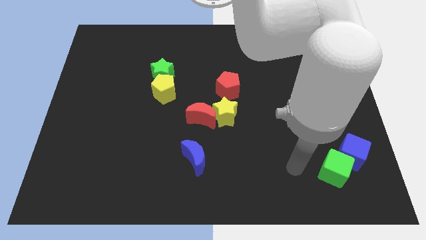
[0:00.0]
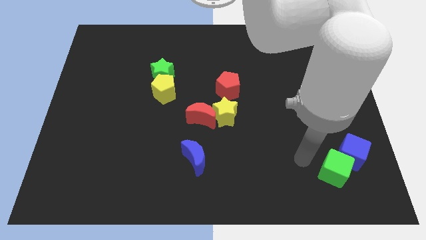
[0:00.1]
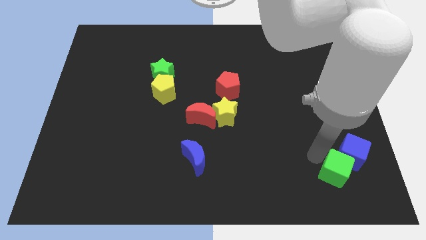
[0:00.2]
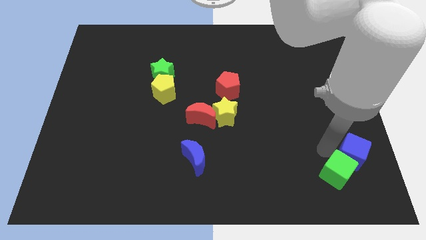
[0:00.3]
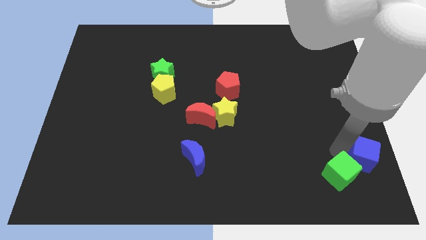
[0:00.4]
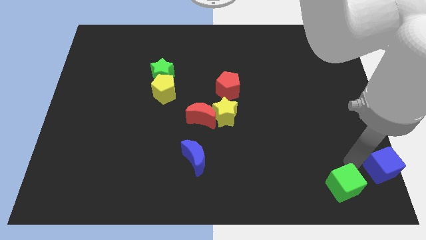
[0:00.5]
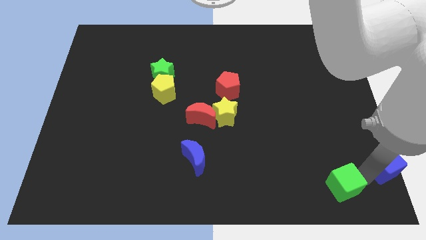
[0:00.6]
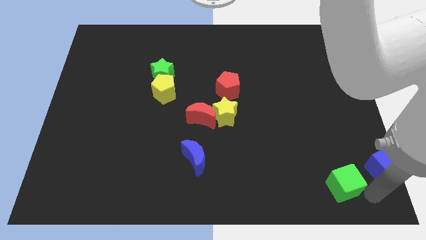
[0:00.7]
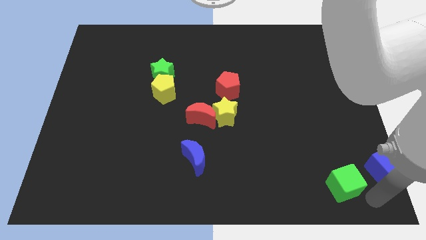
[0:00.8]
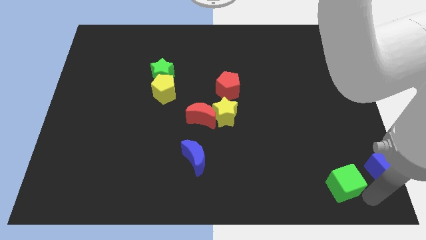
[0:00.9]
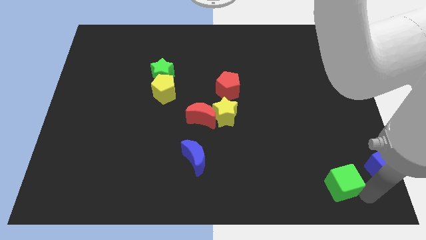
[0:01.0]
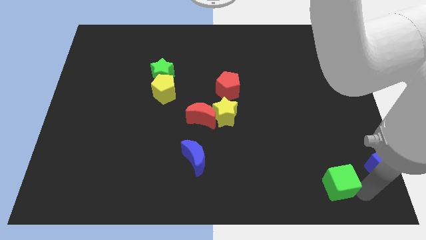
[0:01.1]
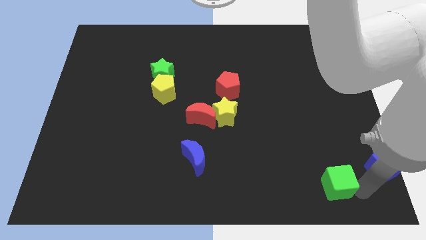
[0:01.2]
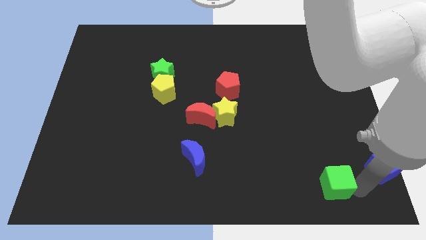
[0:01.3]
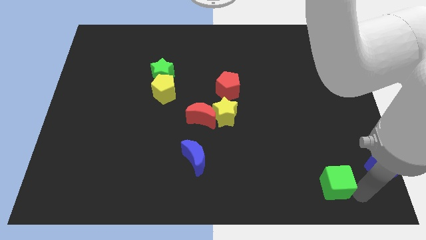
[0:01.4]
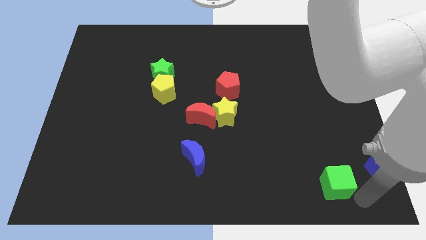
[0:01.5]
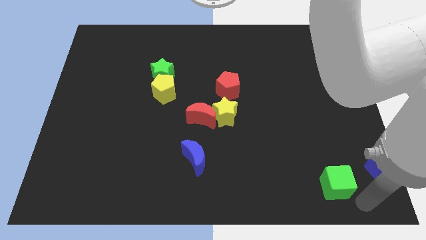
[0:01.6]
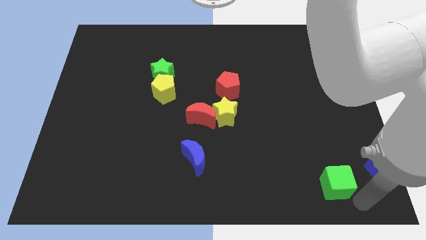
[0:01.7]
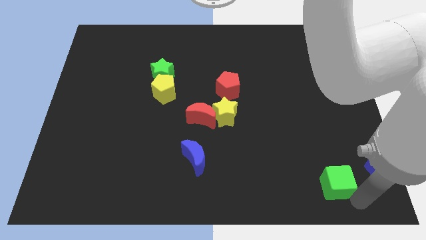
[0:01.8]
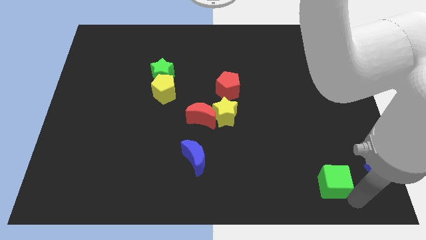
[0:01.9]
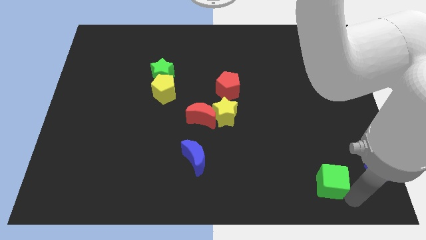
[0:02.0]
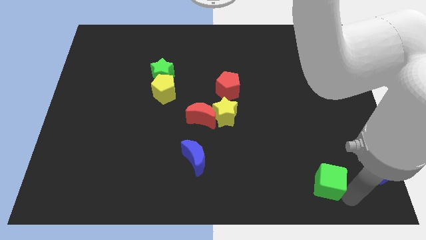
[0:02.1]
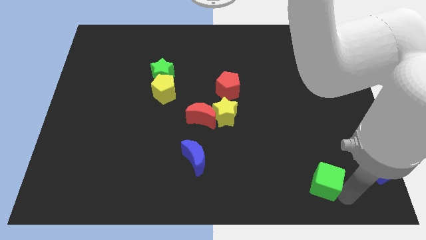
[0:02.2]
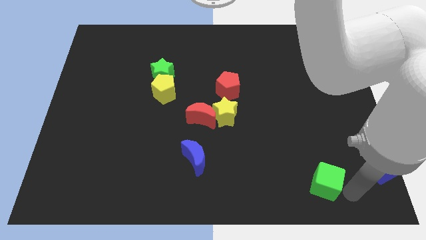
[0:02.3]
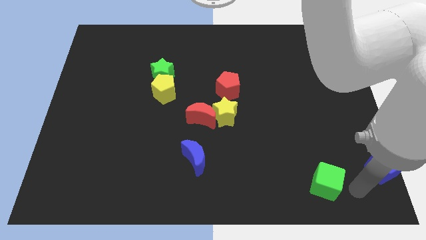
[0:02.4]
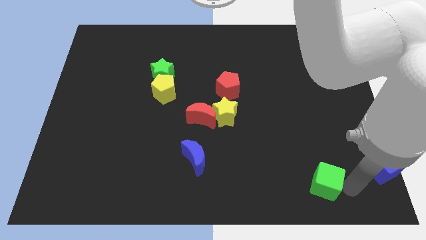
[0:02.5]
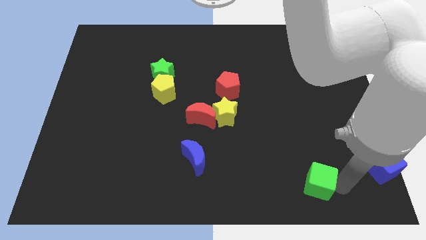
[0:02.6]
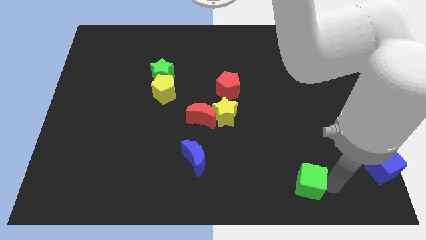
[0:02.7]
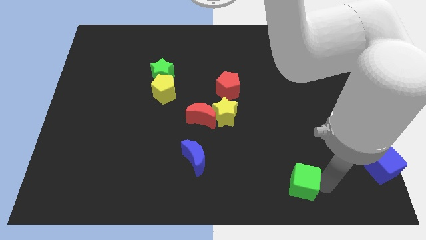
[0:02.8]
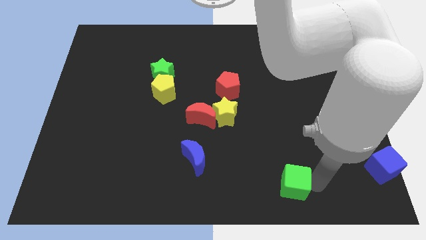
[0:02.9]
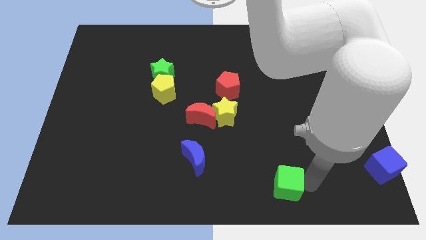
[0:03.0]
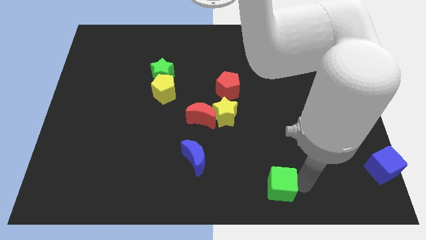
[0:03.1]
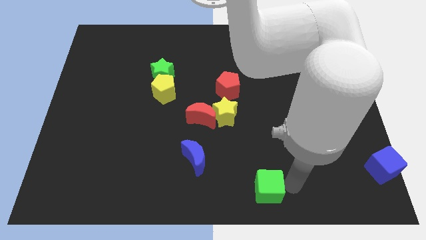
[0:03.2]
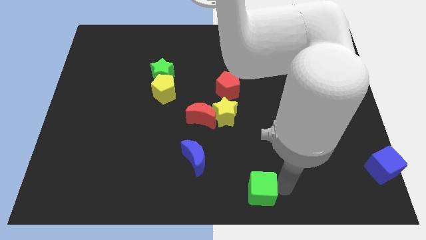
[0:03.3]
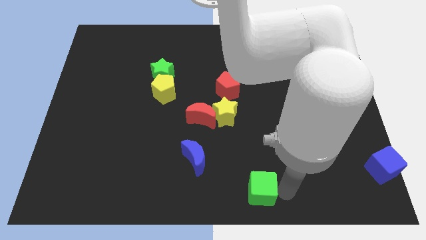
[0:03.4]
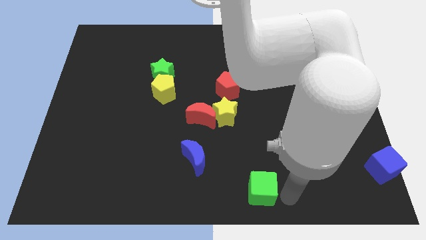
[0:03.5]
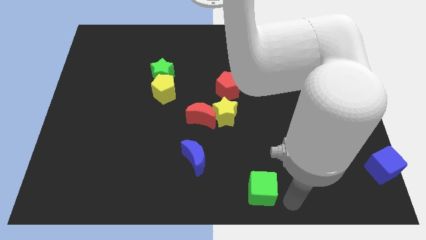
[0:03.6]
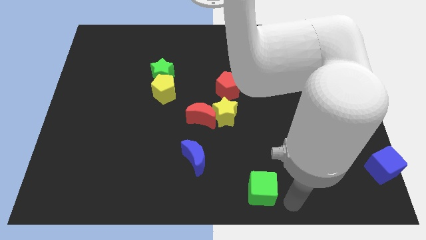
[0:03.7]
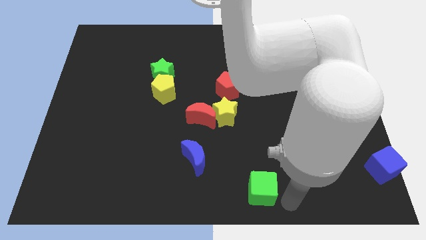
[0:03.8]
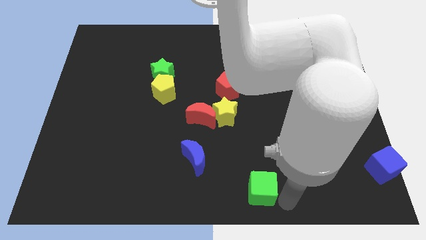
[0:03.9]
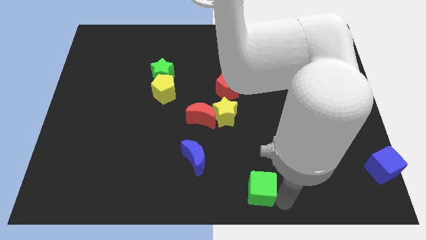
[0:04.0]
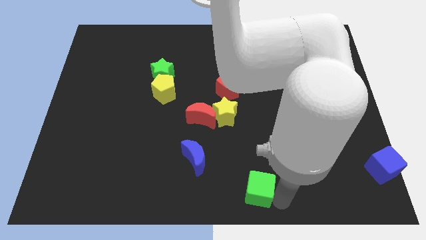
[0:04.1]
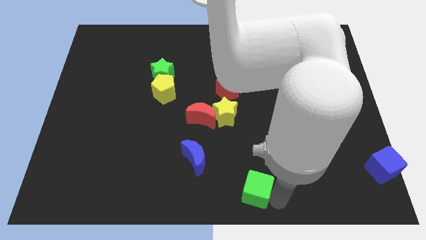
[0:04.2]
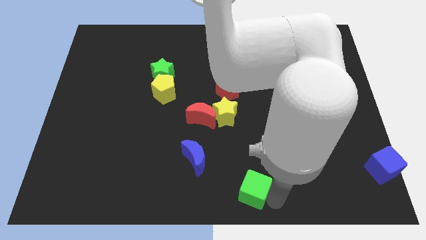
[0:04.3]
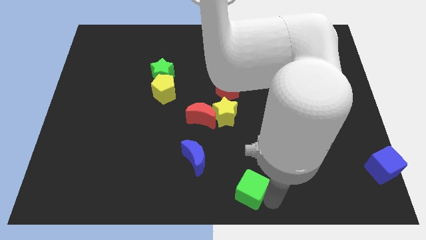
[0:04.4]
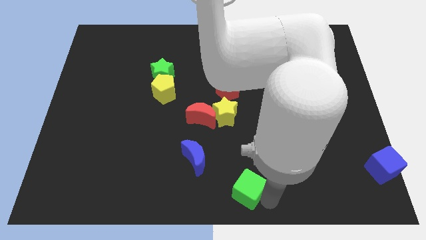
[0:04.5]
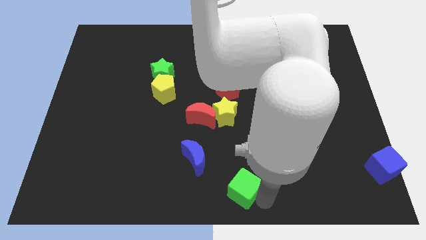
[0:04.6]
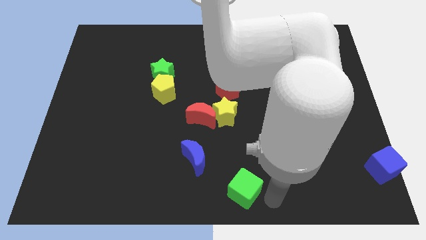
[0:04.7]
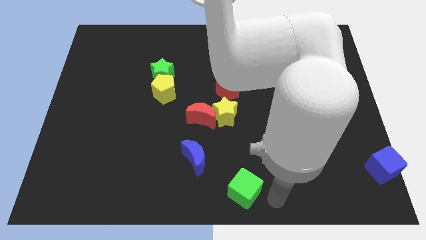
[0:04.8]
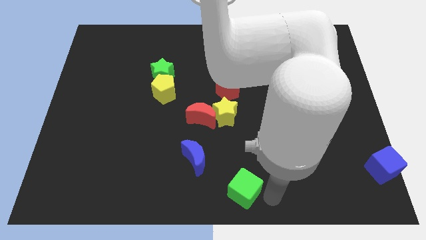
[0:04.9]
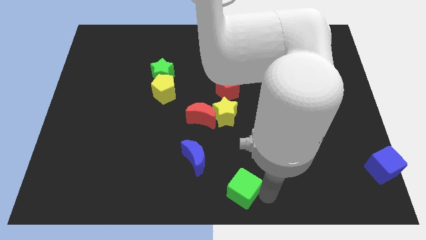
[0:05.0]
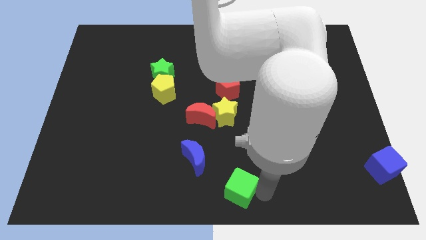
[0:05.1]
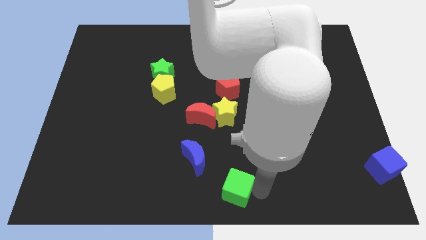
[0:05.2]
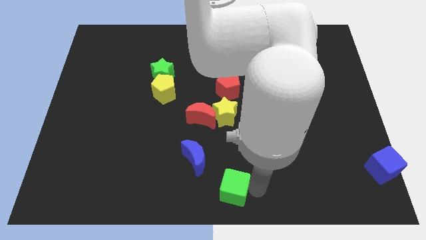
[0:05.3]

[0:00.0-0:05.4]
push the green cube to the left

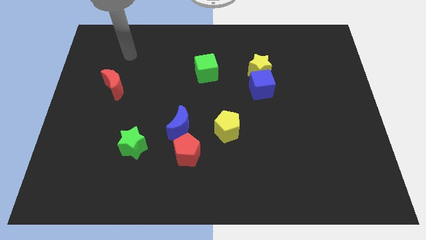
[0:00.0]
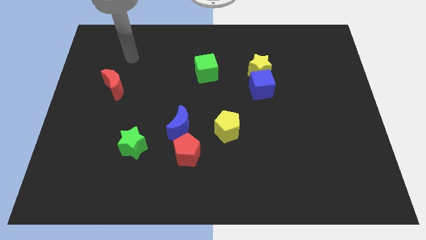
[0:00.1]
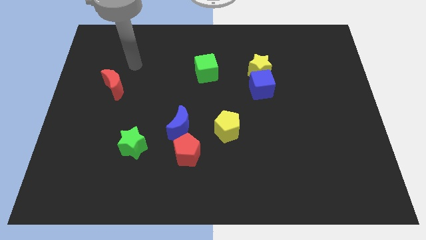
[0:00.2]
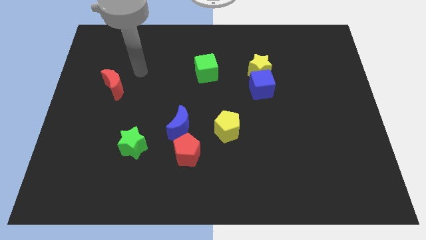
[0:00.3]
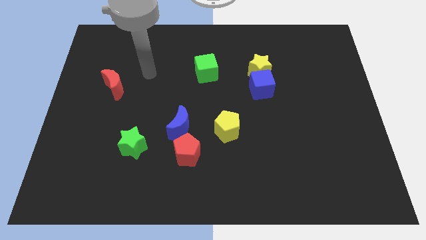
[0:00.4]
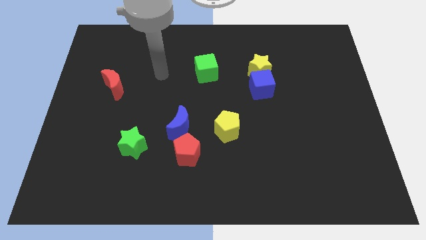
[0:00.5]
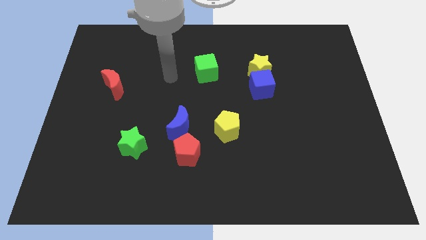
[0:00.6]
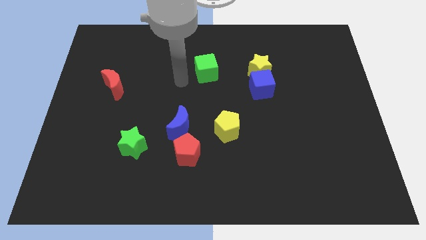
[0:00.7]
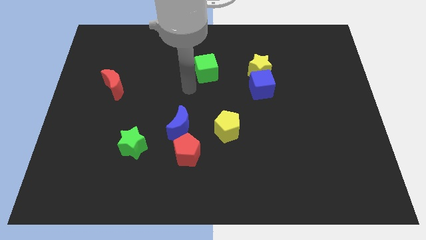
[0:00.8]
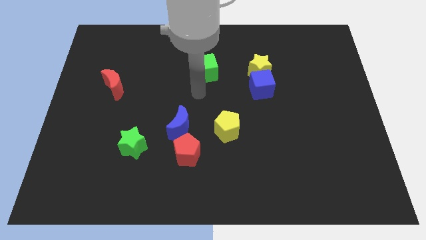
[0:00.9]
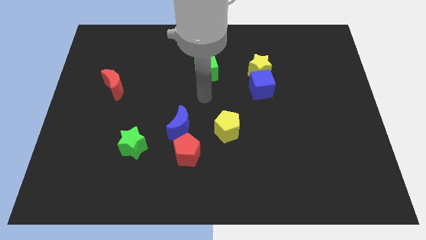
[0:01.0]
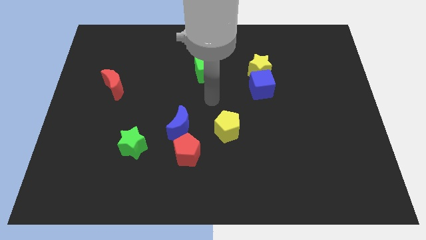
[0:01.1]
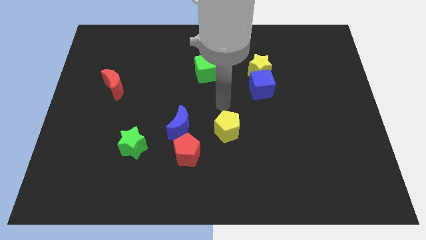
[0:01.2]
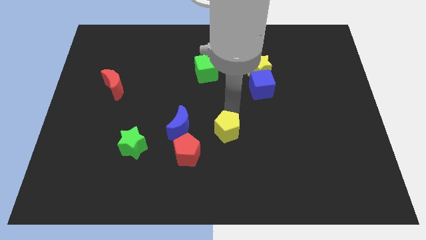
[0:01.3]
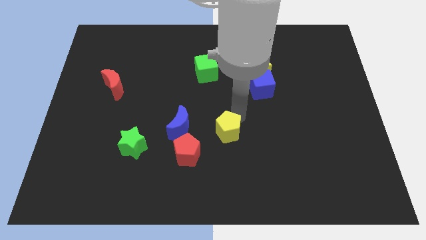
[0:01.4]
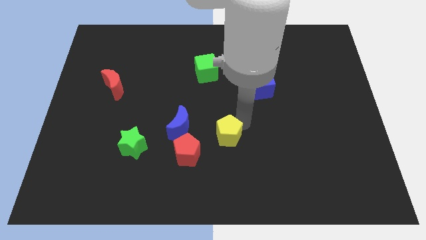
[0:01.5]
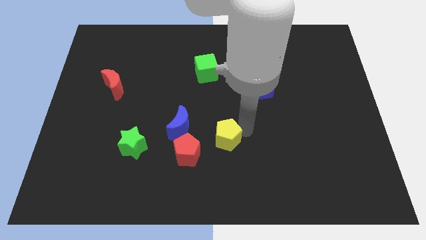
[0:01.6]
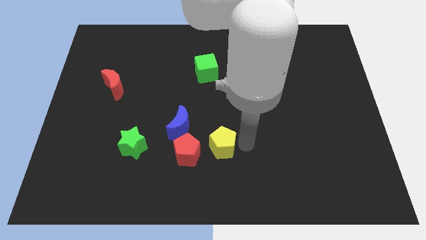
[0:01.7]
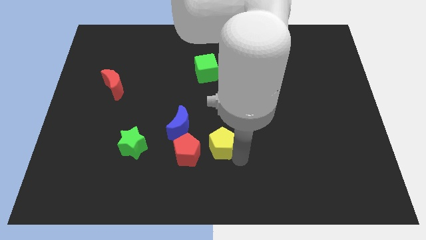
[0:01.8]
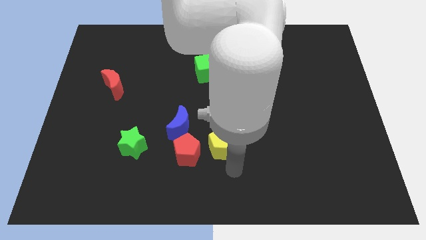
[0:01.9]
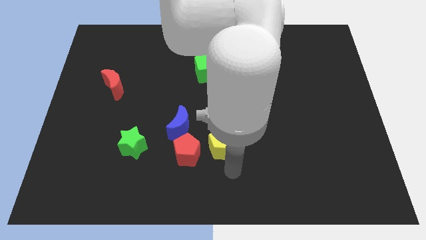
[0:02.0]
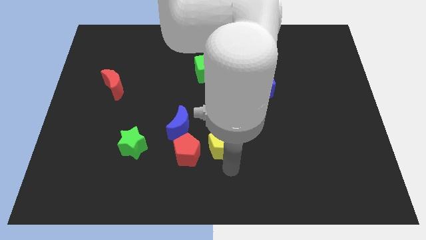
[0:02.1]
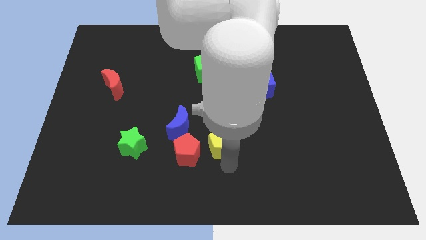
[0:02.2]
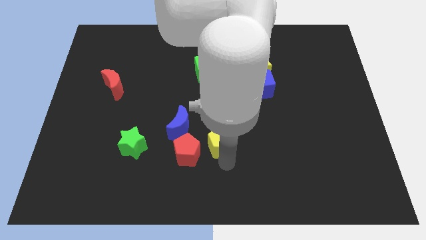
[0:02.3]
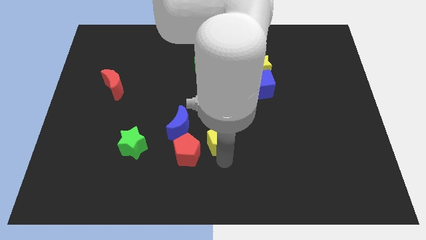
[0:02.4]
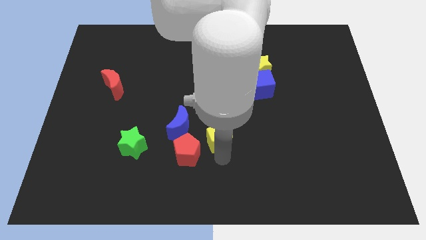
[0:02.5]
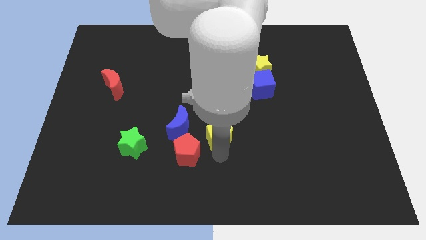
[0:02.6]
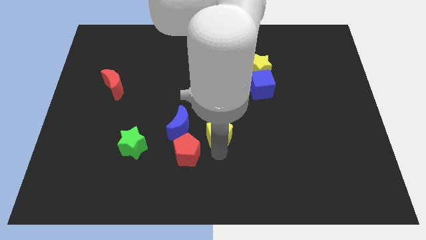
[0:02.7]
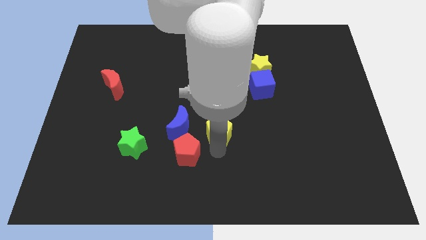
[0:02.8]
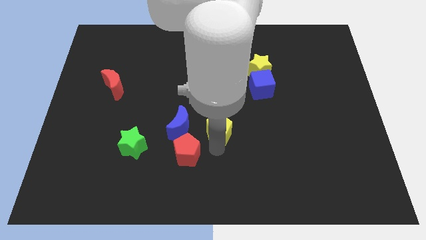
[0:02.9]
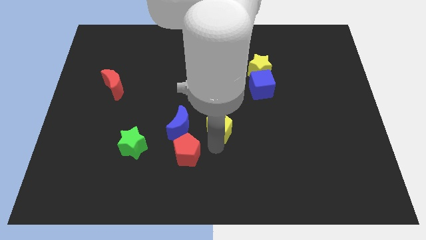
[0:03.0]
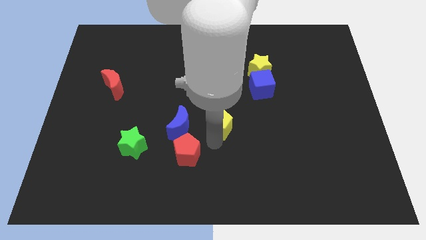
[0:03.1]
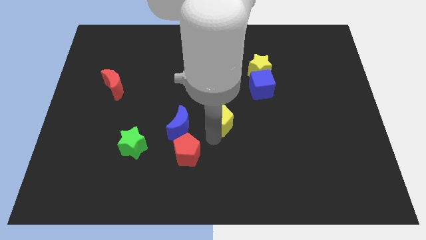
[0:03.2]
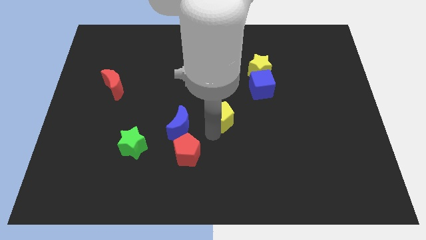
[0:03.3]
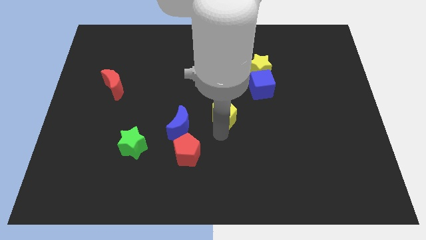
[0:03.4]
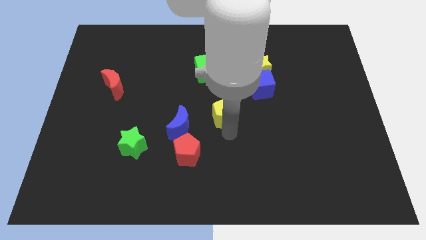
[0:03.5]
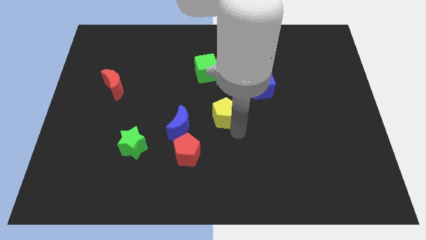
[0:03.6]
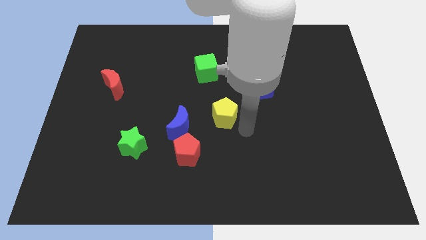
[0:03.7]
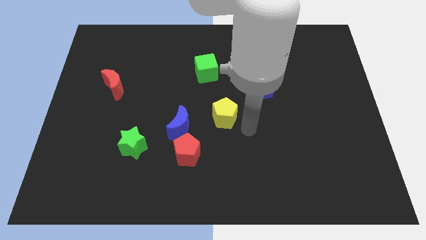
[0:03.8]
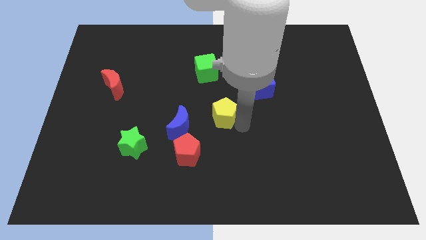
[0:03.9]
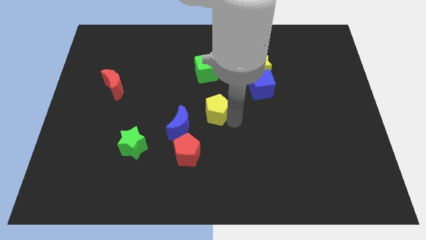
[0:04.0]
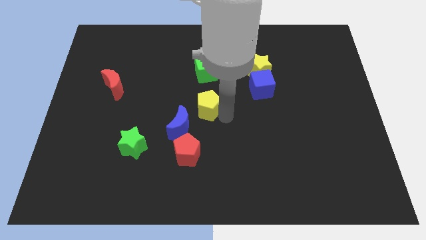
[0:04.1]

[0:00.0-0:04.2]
push the yellow pentagon diagonally upwards and left a little
